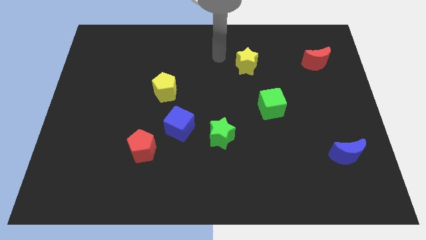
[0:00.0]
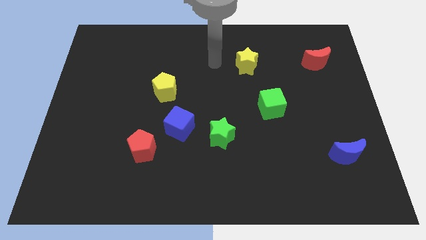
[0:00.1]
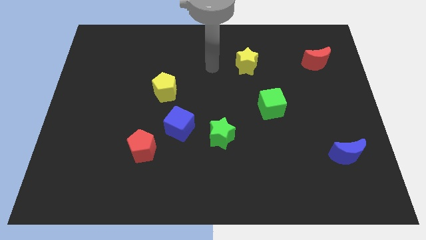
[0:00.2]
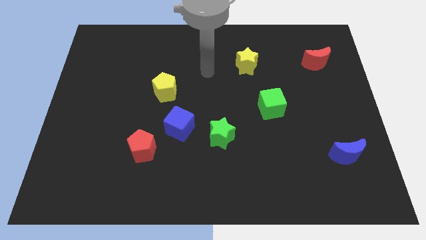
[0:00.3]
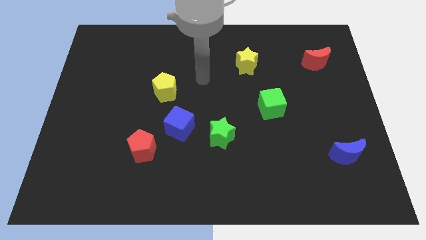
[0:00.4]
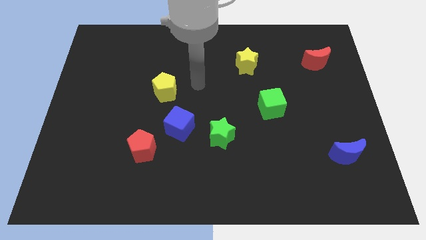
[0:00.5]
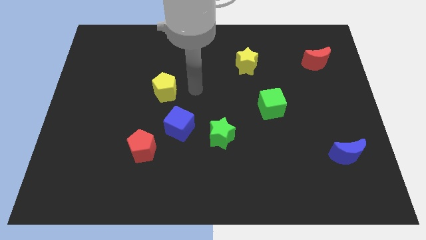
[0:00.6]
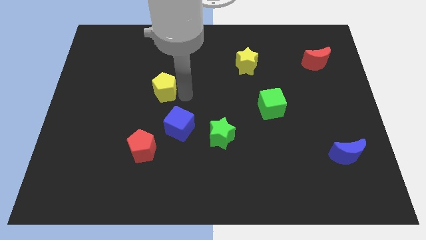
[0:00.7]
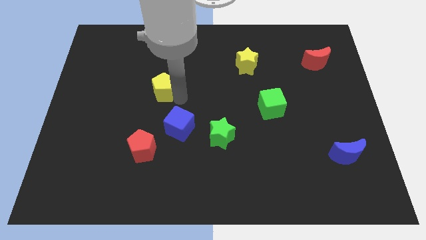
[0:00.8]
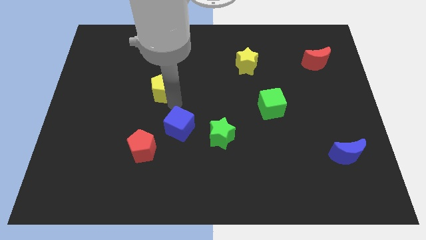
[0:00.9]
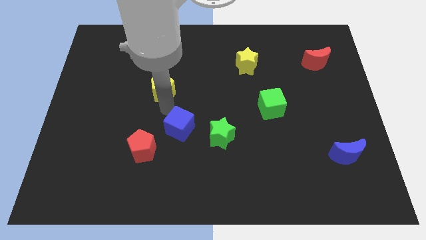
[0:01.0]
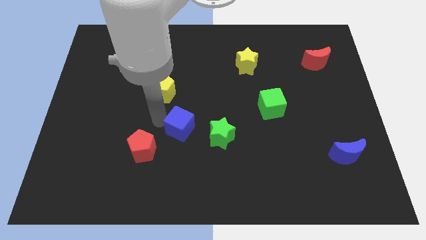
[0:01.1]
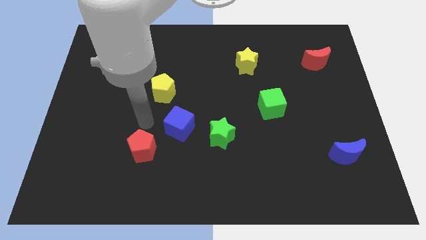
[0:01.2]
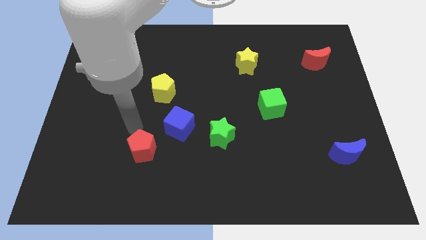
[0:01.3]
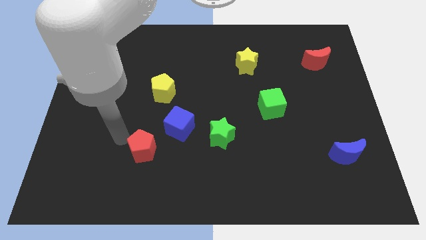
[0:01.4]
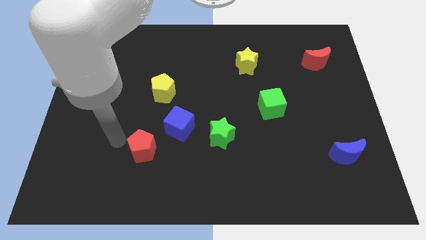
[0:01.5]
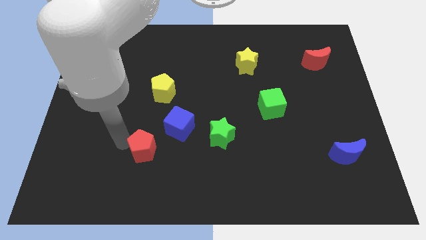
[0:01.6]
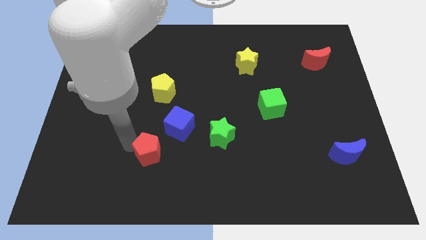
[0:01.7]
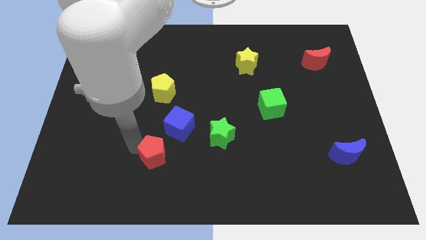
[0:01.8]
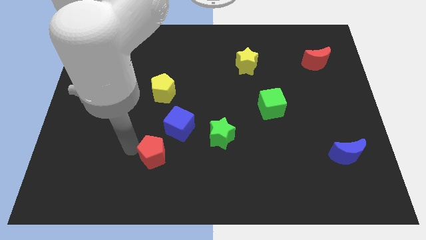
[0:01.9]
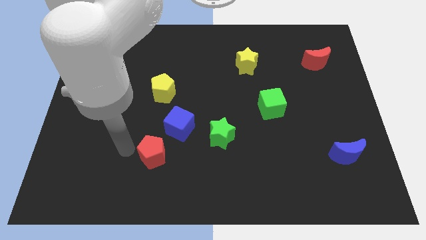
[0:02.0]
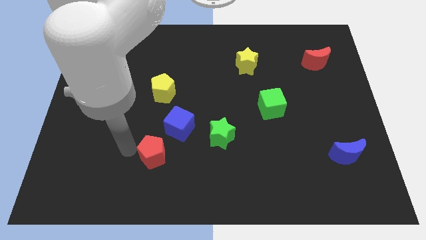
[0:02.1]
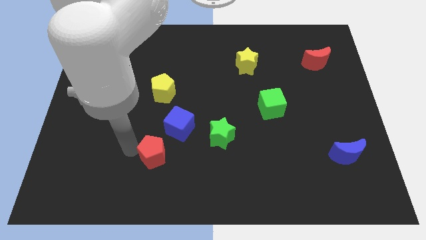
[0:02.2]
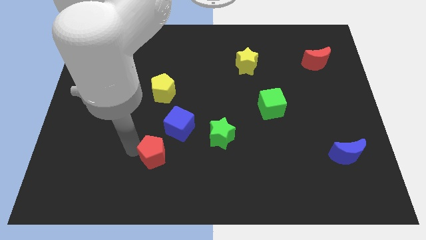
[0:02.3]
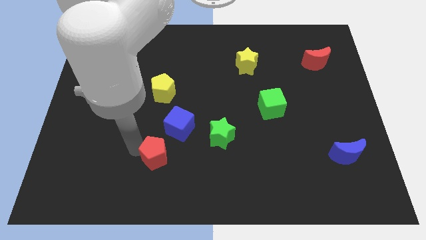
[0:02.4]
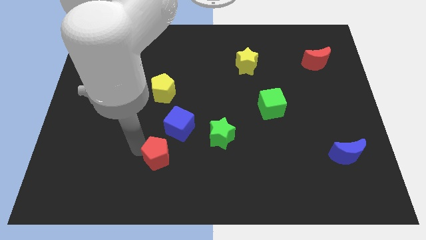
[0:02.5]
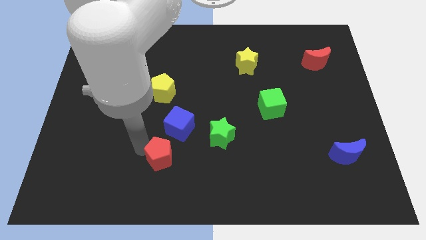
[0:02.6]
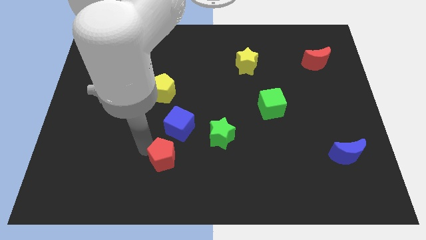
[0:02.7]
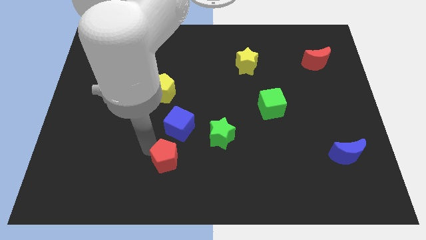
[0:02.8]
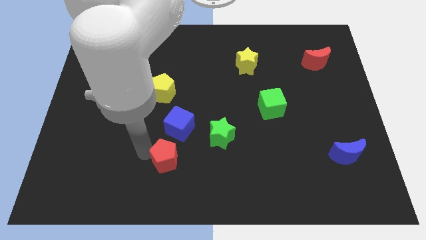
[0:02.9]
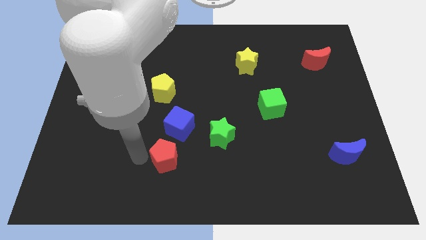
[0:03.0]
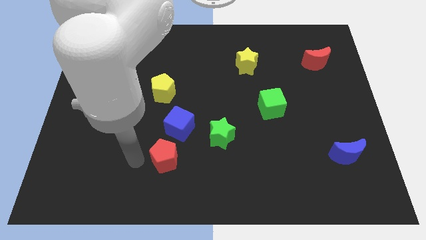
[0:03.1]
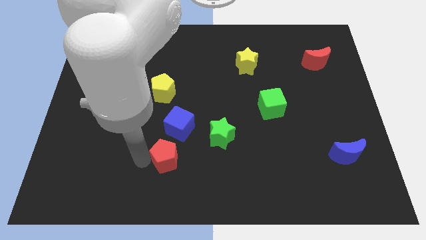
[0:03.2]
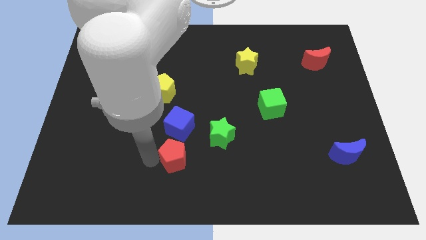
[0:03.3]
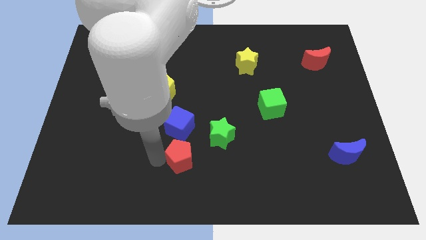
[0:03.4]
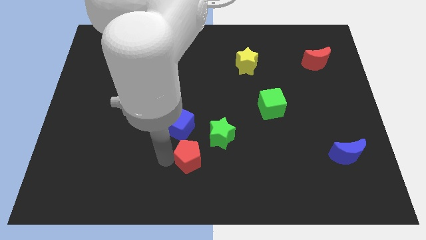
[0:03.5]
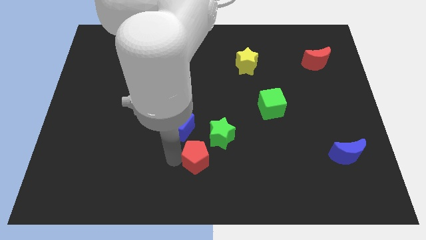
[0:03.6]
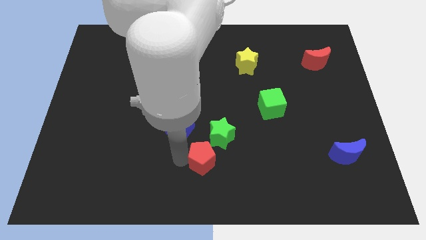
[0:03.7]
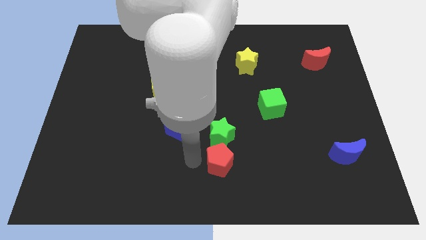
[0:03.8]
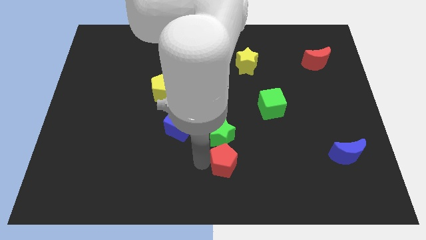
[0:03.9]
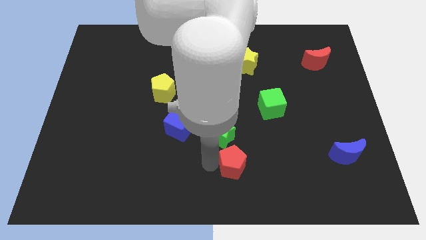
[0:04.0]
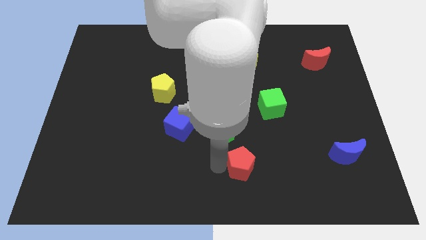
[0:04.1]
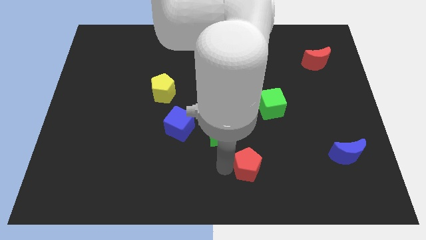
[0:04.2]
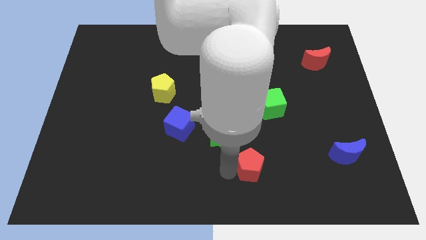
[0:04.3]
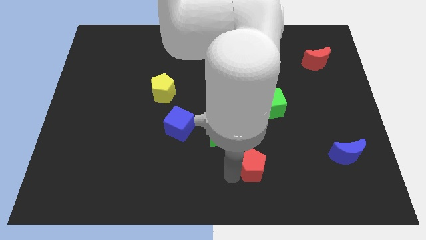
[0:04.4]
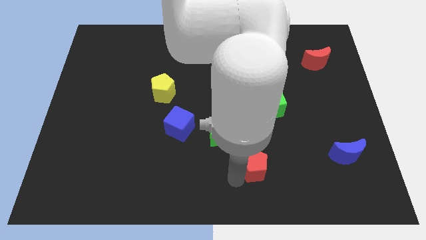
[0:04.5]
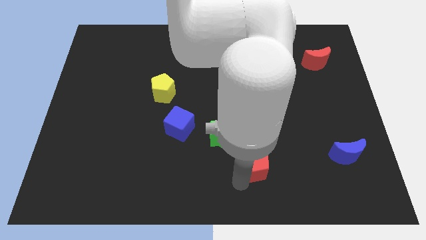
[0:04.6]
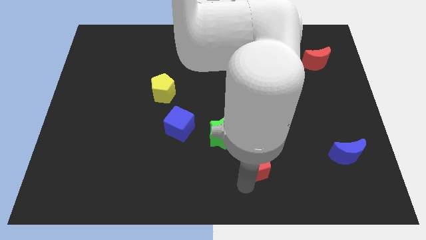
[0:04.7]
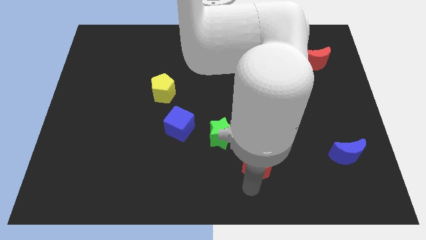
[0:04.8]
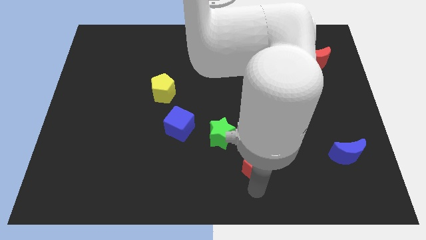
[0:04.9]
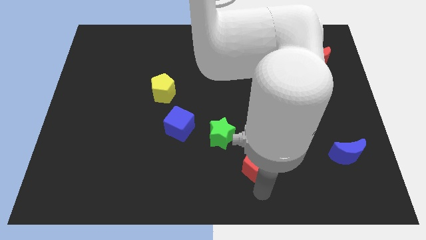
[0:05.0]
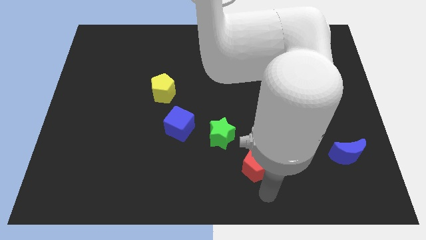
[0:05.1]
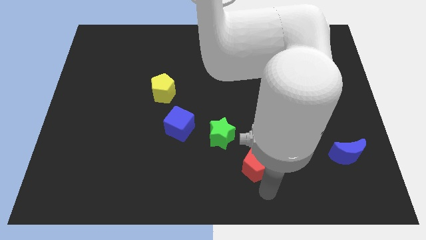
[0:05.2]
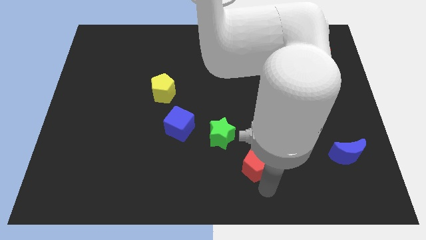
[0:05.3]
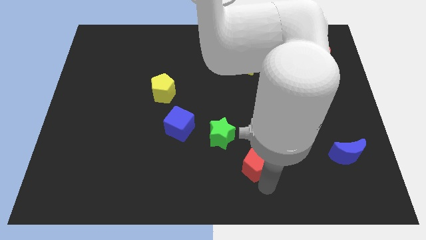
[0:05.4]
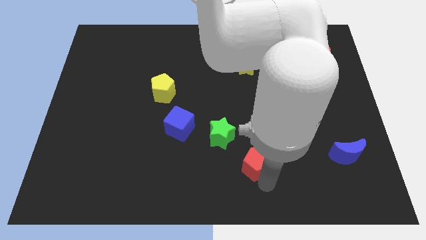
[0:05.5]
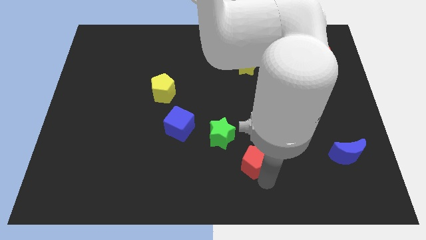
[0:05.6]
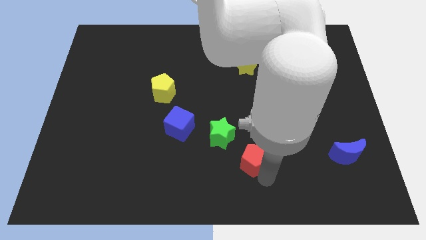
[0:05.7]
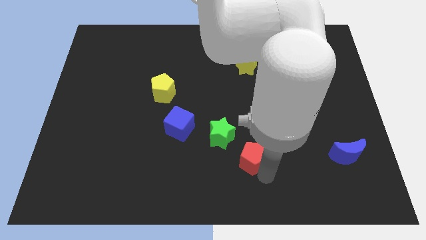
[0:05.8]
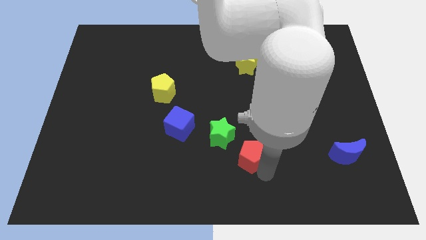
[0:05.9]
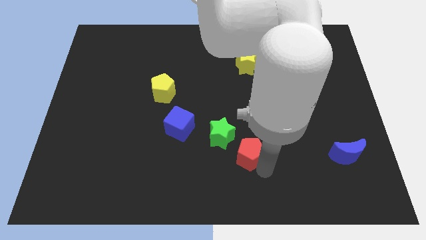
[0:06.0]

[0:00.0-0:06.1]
push the red pentagon just right of the green star

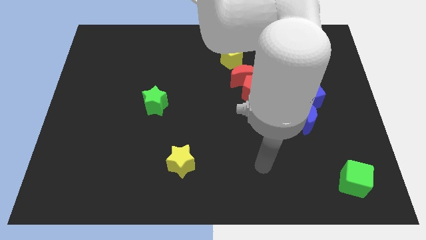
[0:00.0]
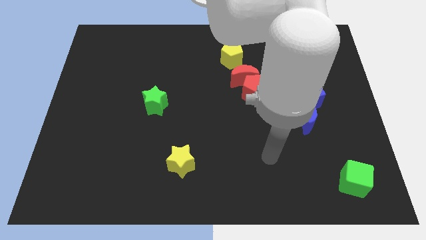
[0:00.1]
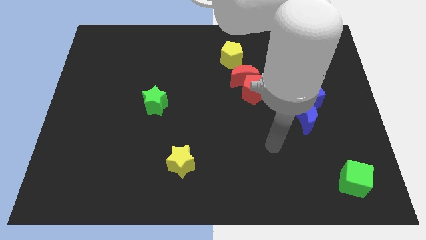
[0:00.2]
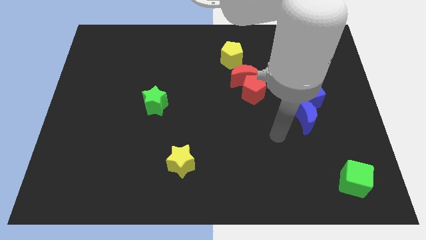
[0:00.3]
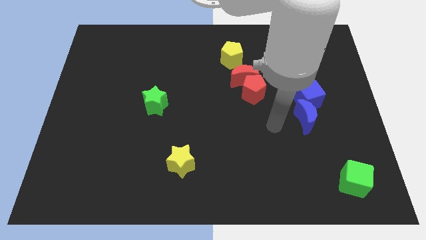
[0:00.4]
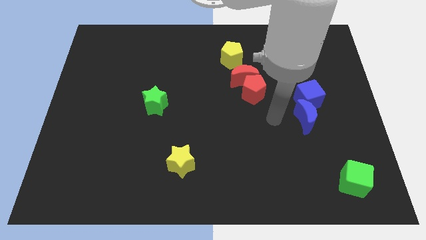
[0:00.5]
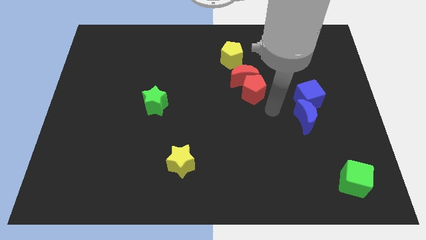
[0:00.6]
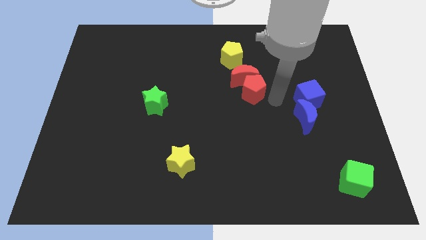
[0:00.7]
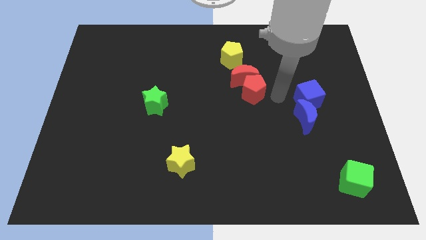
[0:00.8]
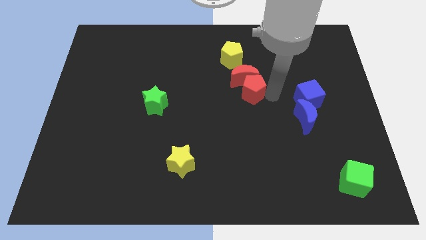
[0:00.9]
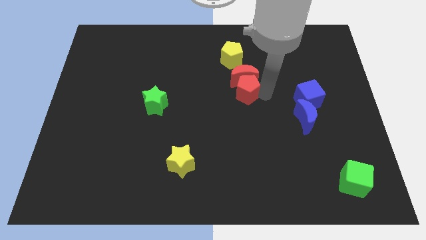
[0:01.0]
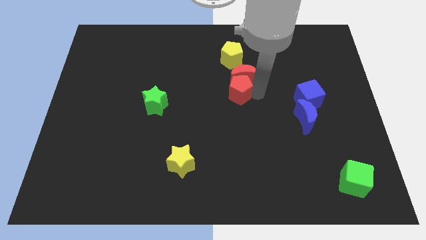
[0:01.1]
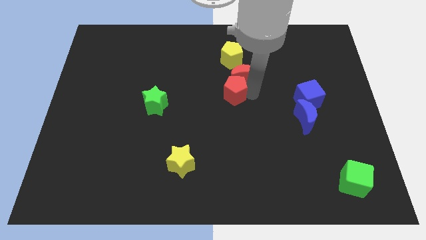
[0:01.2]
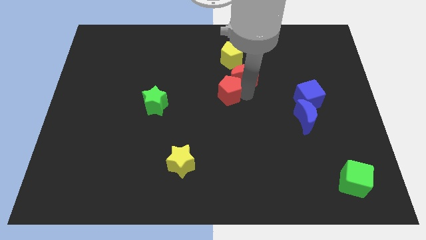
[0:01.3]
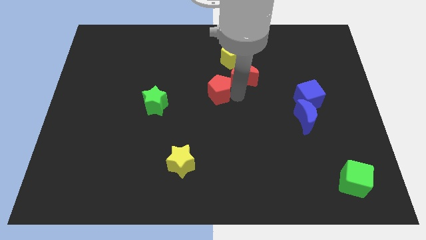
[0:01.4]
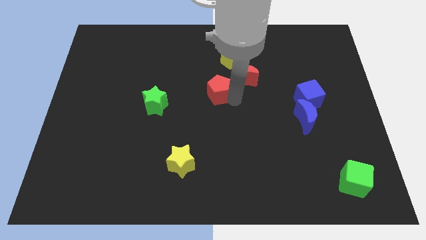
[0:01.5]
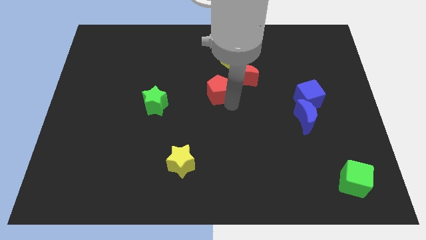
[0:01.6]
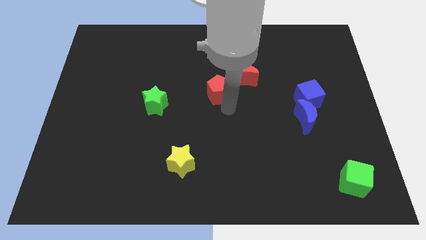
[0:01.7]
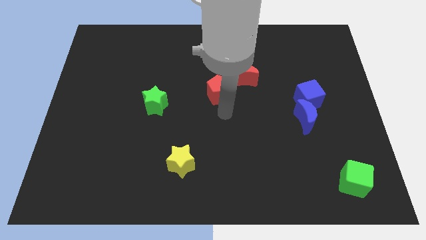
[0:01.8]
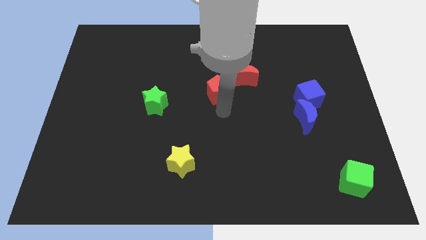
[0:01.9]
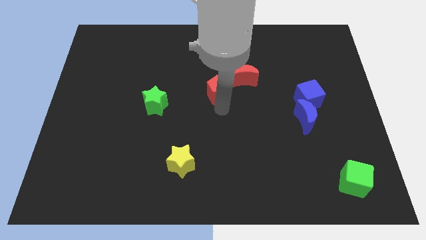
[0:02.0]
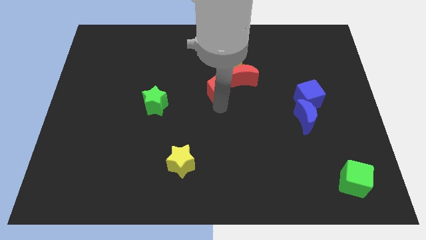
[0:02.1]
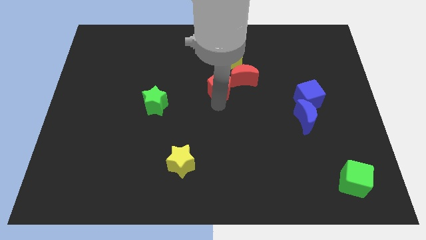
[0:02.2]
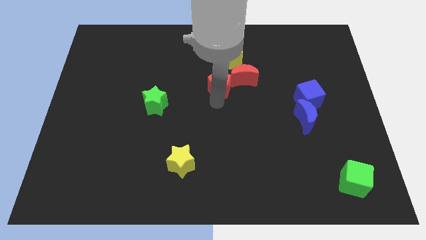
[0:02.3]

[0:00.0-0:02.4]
push the red pentagon to the bottom left side of the yellow pentagon
